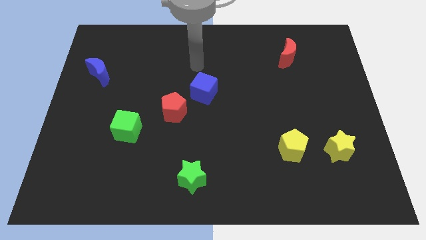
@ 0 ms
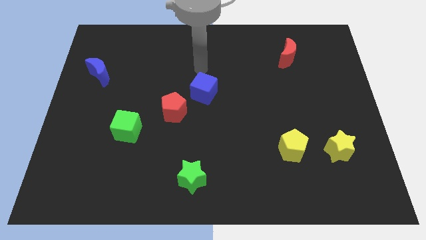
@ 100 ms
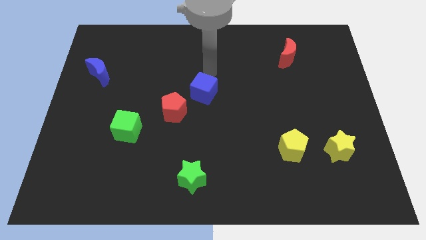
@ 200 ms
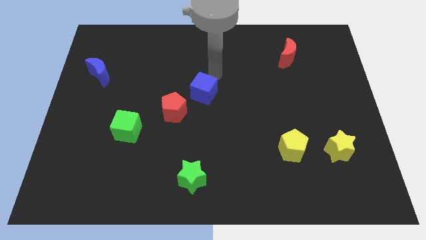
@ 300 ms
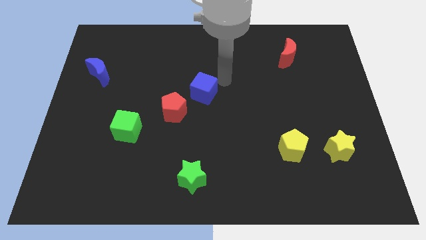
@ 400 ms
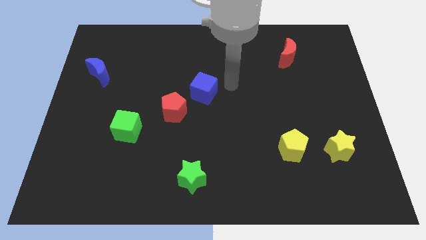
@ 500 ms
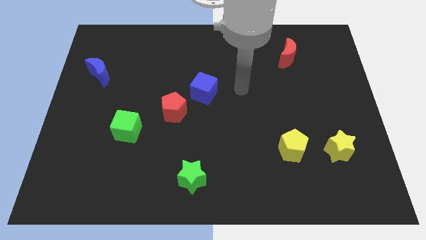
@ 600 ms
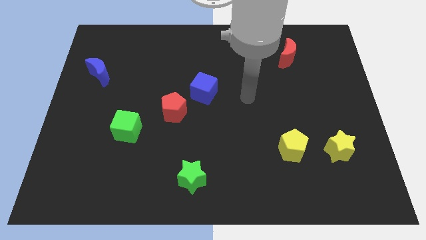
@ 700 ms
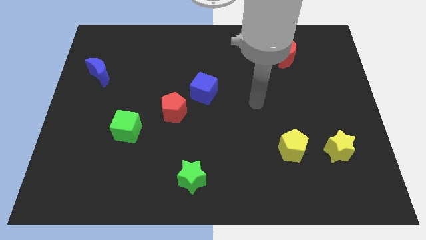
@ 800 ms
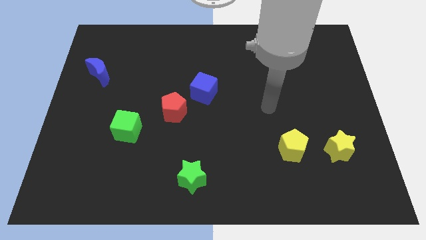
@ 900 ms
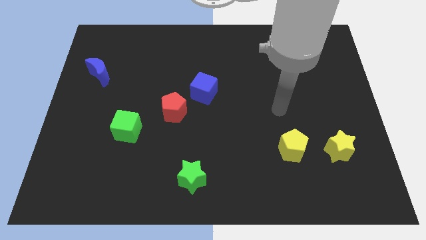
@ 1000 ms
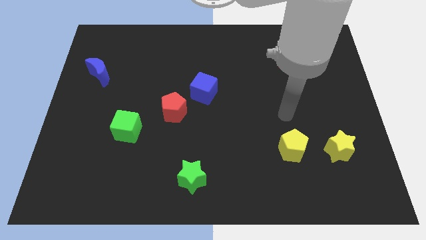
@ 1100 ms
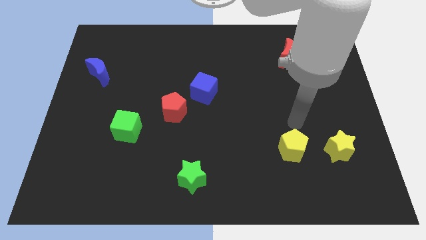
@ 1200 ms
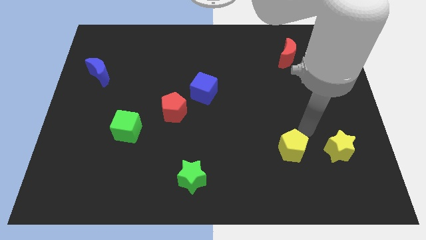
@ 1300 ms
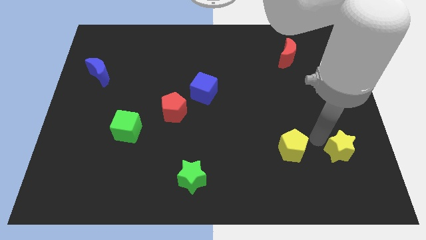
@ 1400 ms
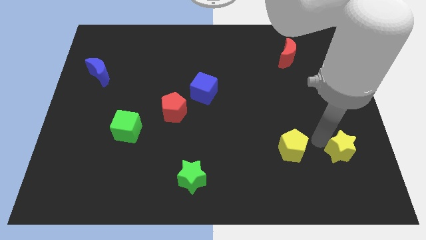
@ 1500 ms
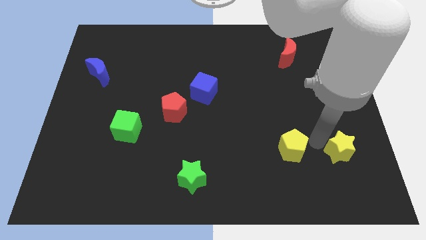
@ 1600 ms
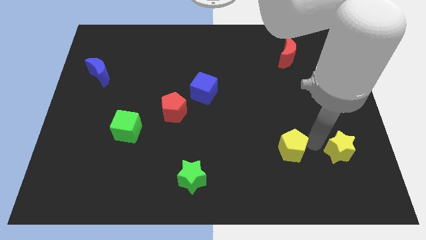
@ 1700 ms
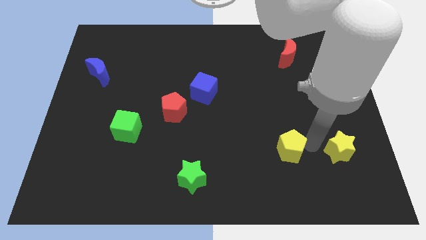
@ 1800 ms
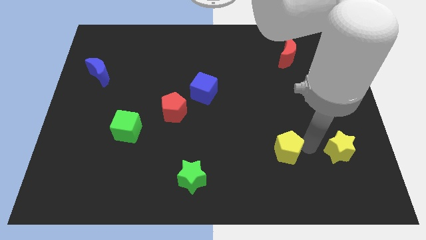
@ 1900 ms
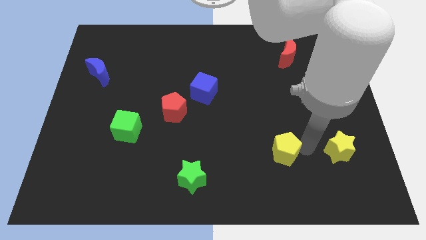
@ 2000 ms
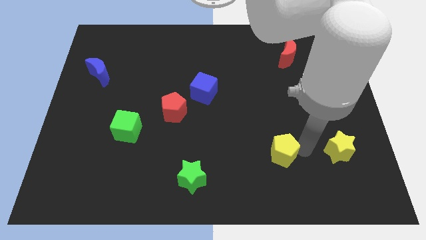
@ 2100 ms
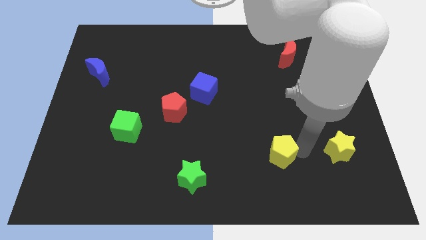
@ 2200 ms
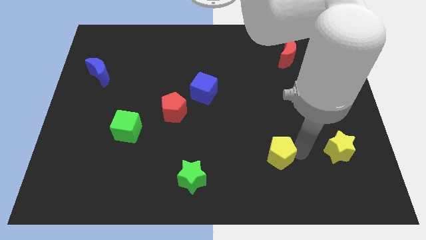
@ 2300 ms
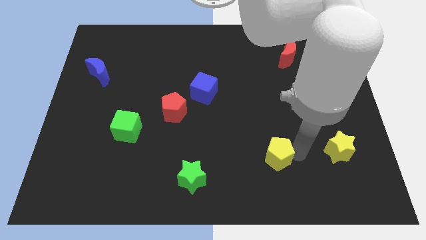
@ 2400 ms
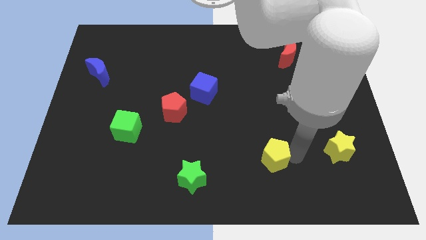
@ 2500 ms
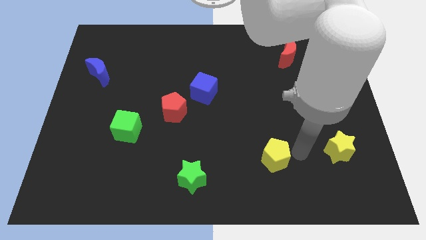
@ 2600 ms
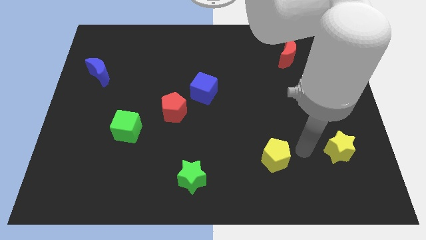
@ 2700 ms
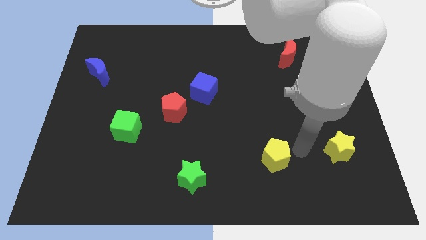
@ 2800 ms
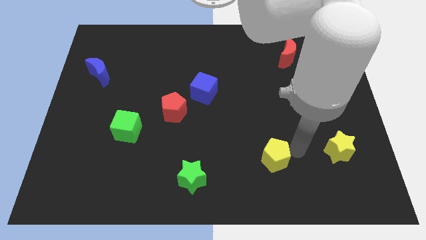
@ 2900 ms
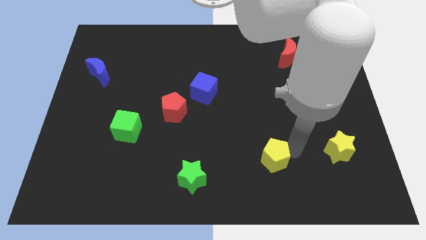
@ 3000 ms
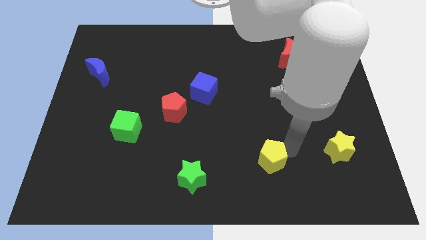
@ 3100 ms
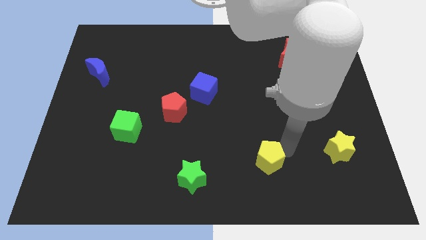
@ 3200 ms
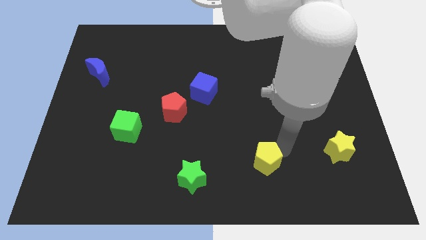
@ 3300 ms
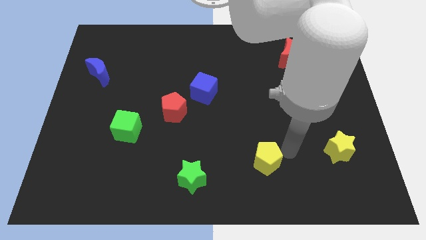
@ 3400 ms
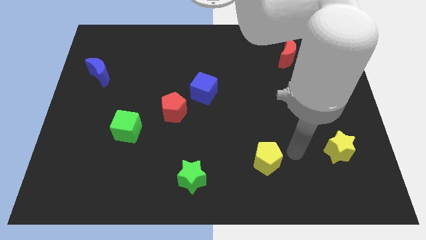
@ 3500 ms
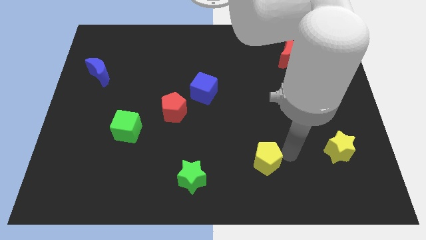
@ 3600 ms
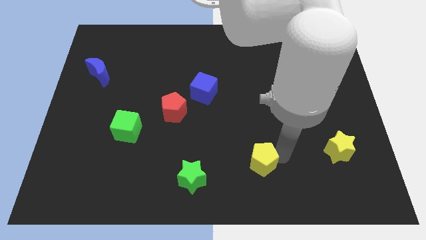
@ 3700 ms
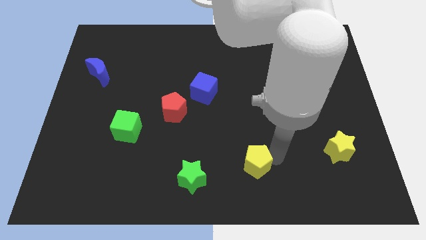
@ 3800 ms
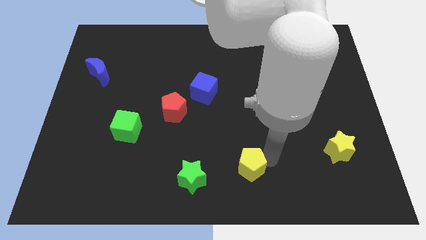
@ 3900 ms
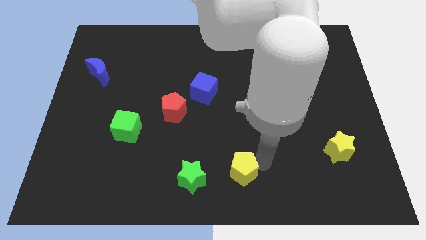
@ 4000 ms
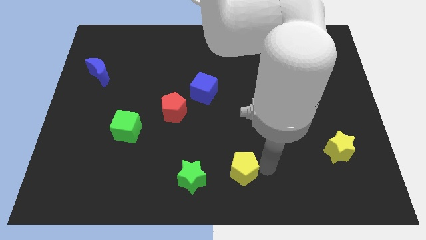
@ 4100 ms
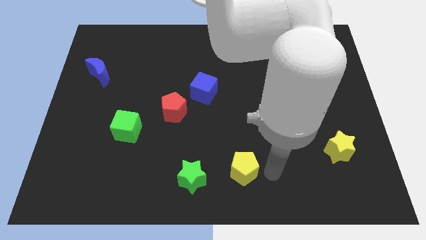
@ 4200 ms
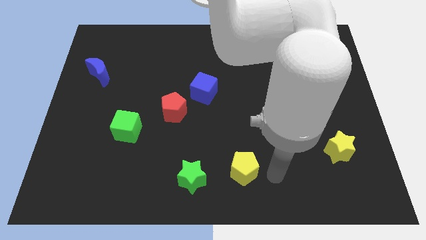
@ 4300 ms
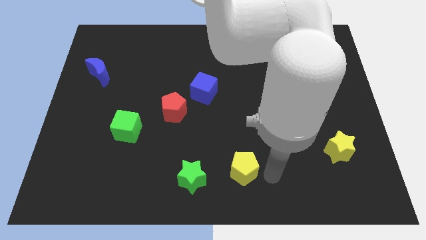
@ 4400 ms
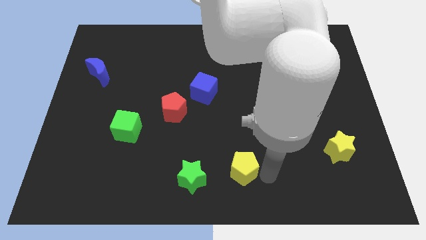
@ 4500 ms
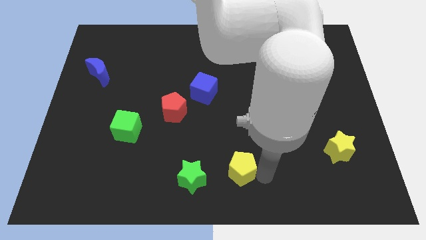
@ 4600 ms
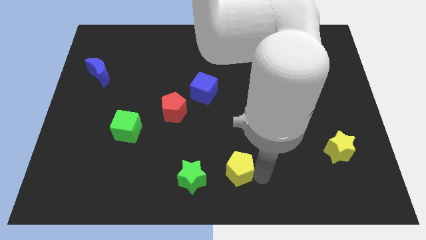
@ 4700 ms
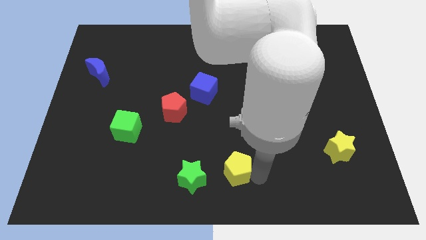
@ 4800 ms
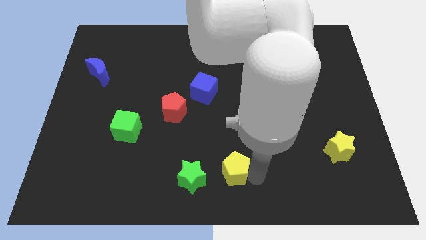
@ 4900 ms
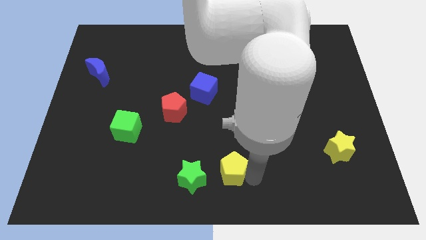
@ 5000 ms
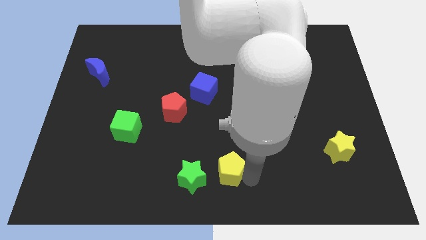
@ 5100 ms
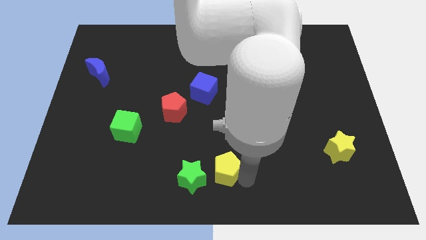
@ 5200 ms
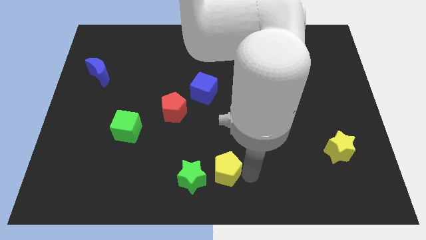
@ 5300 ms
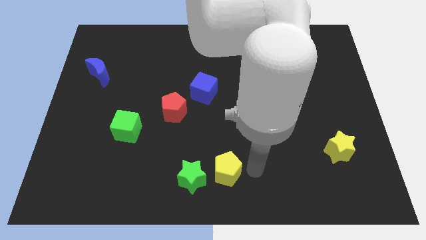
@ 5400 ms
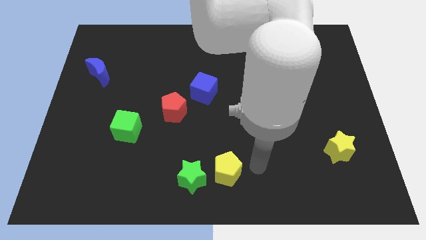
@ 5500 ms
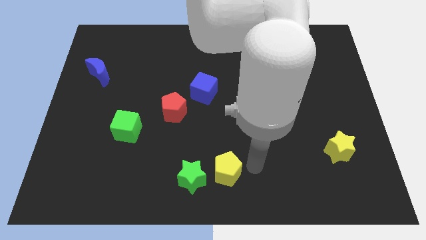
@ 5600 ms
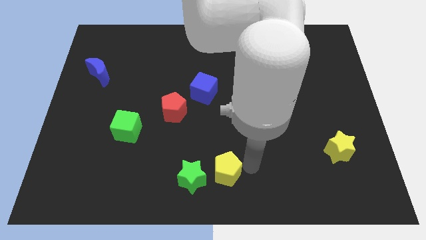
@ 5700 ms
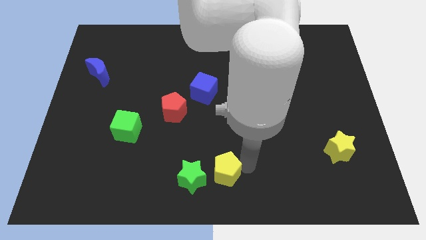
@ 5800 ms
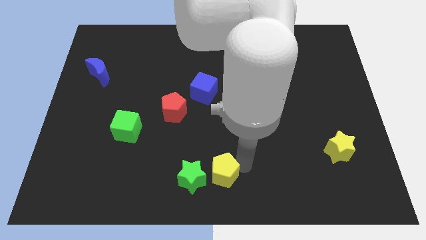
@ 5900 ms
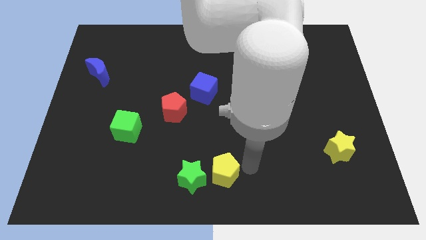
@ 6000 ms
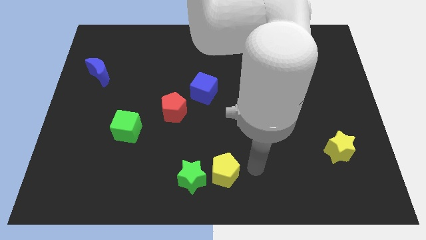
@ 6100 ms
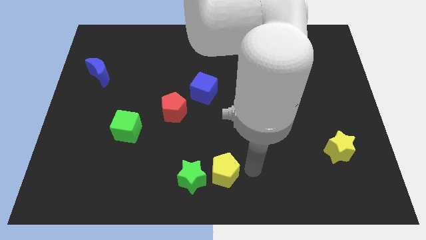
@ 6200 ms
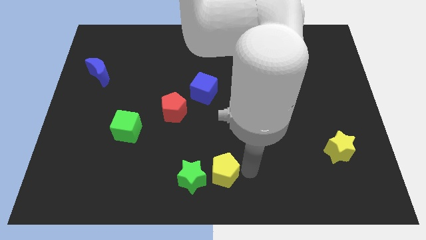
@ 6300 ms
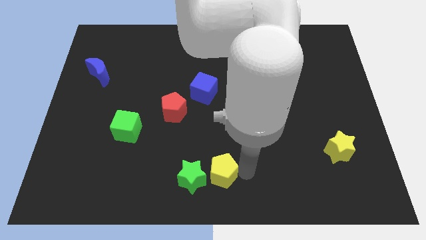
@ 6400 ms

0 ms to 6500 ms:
move the yellow pentagon to the green star

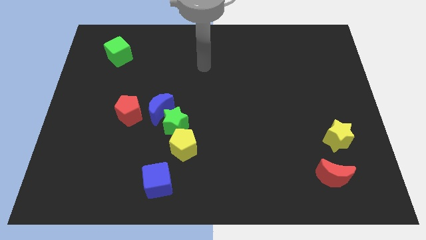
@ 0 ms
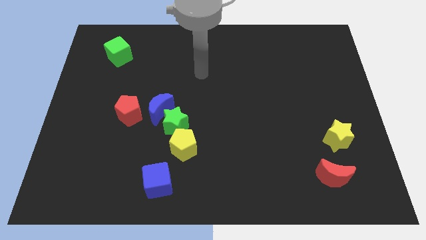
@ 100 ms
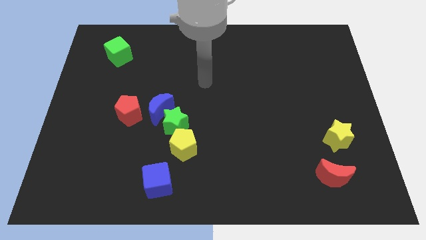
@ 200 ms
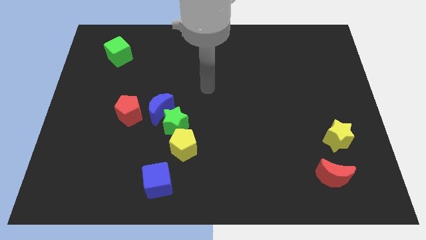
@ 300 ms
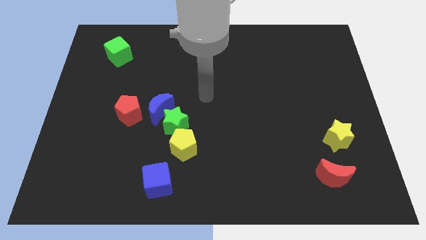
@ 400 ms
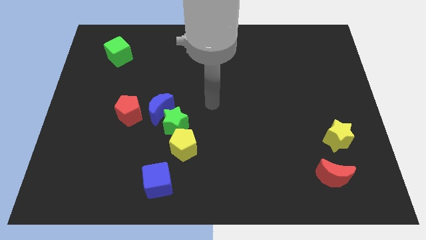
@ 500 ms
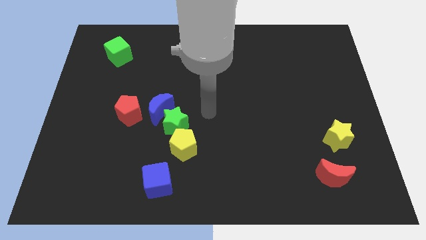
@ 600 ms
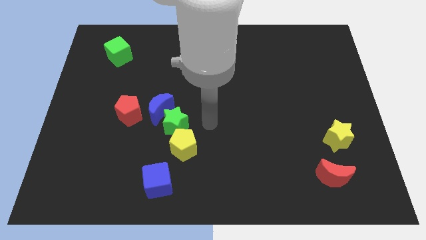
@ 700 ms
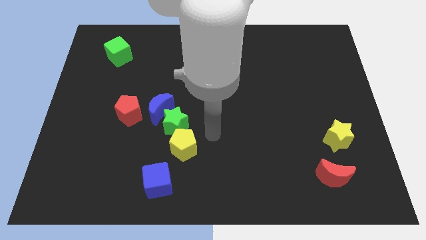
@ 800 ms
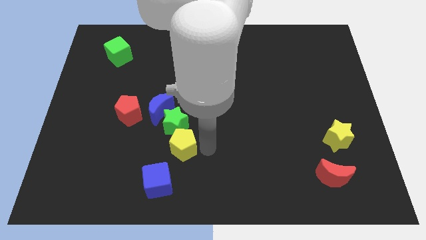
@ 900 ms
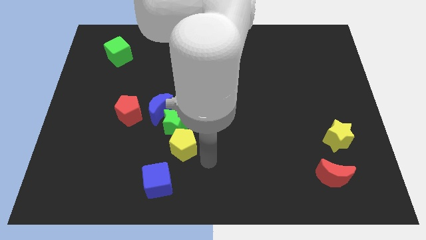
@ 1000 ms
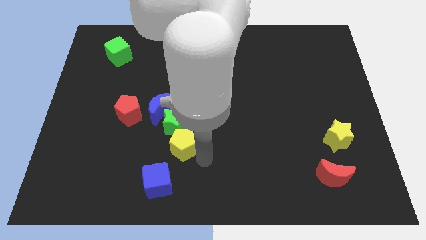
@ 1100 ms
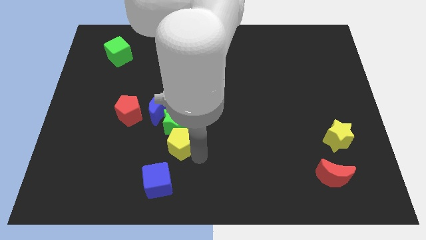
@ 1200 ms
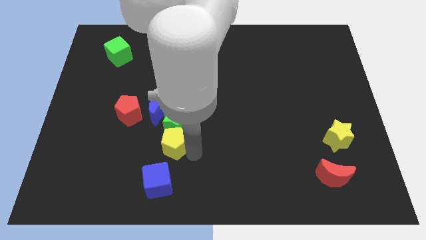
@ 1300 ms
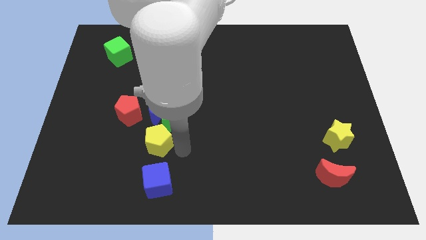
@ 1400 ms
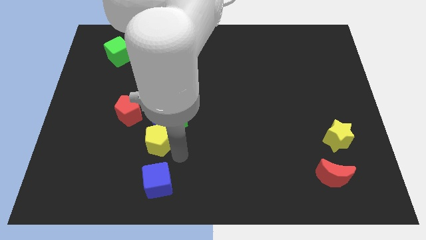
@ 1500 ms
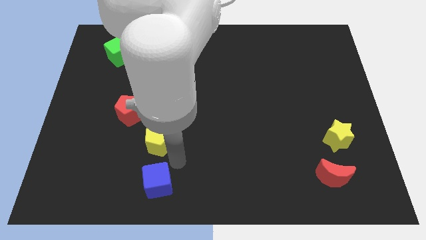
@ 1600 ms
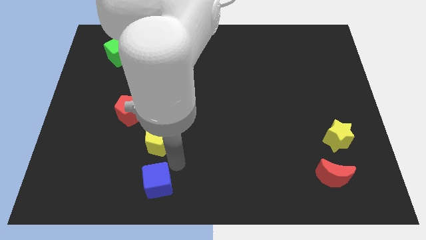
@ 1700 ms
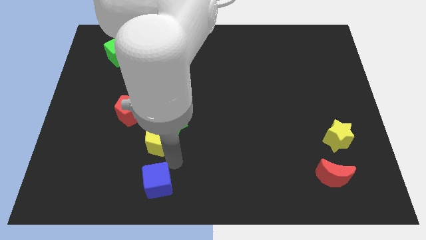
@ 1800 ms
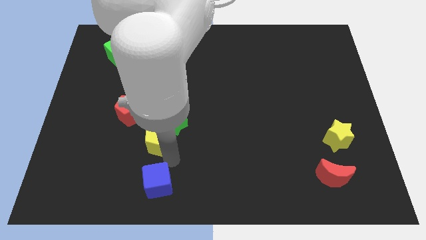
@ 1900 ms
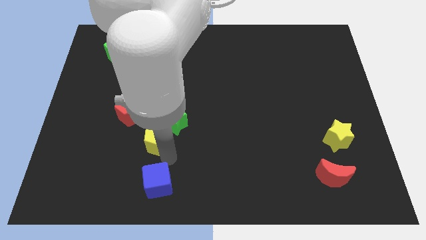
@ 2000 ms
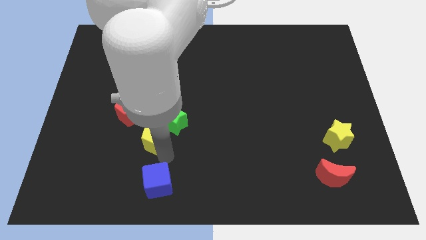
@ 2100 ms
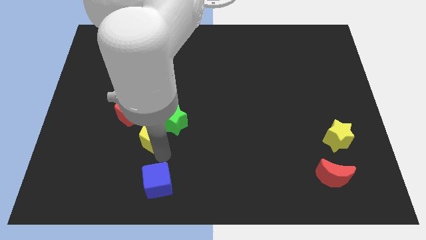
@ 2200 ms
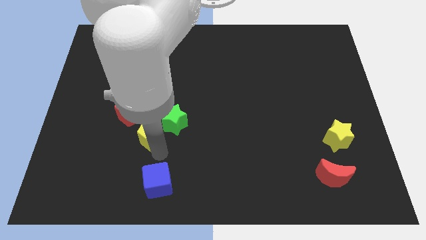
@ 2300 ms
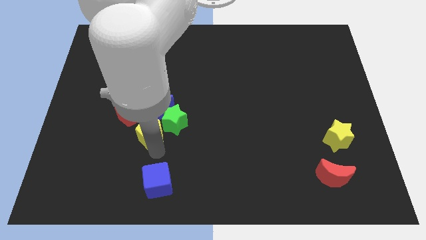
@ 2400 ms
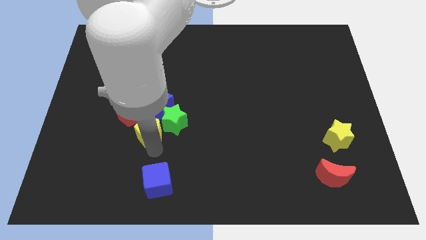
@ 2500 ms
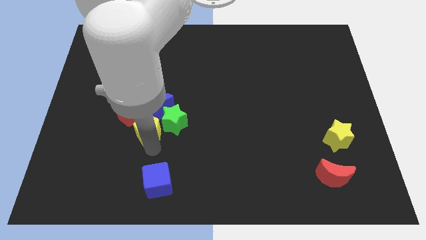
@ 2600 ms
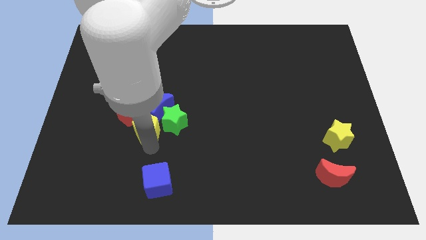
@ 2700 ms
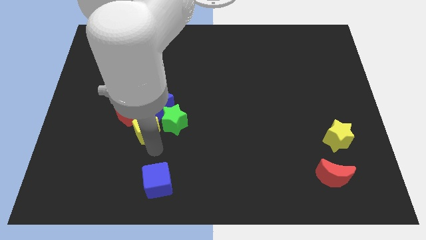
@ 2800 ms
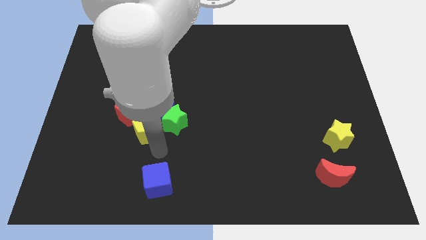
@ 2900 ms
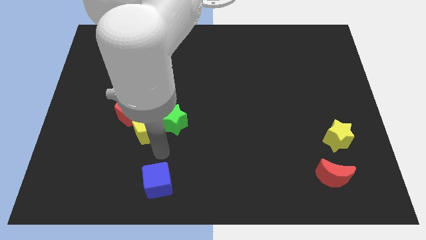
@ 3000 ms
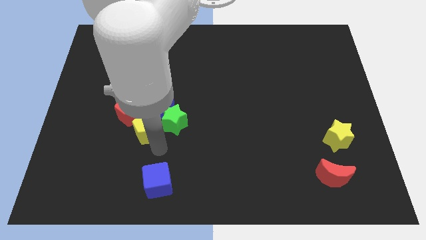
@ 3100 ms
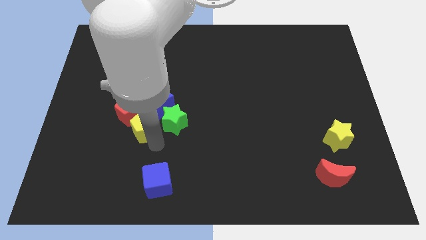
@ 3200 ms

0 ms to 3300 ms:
put the yellow pentagon towards the red pentagon
